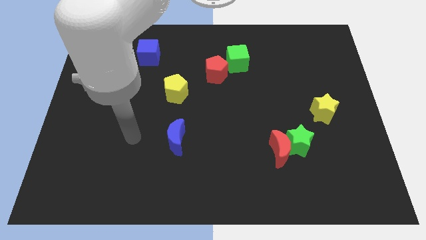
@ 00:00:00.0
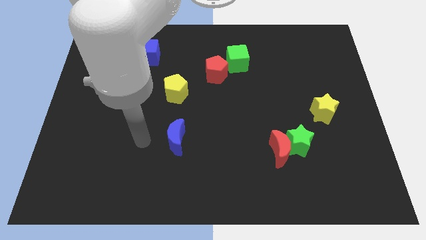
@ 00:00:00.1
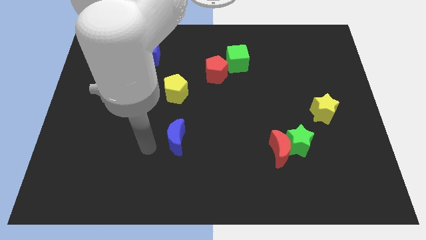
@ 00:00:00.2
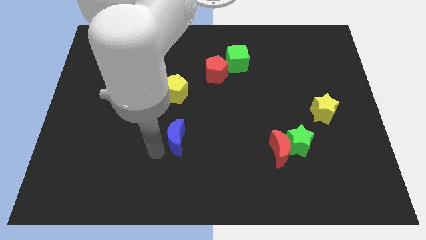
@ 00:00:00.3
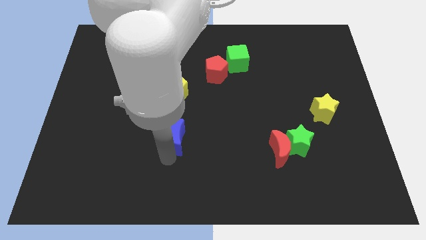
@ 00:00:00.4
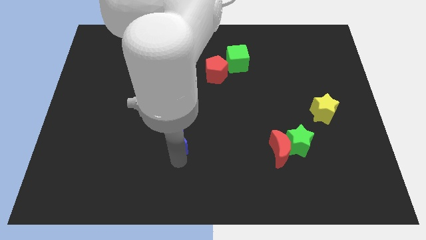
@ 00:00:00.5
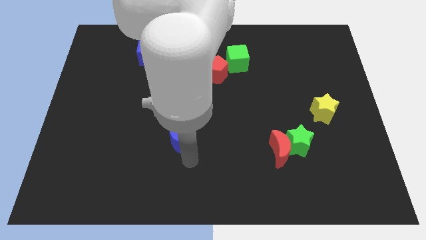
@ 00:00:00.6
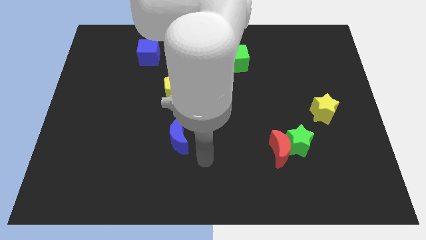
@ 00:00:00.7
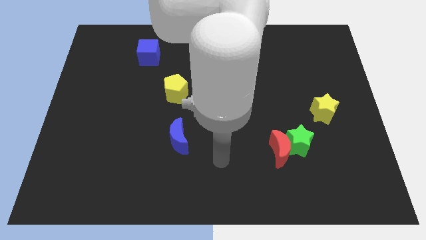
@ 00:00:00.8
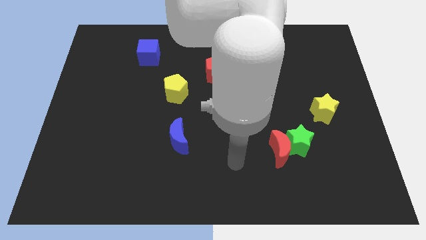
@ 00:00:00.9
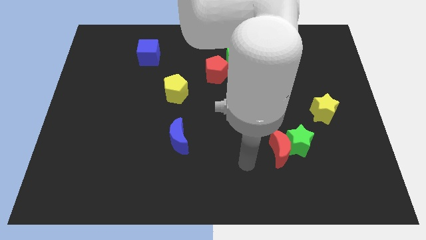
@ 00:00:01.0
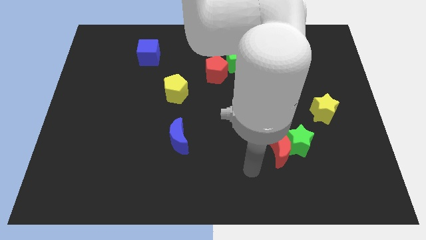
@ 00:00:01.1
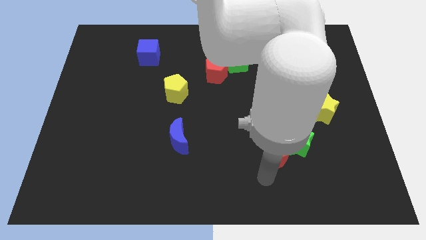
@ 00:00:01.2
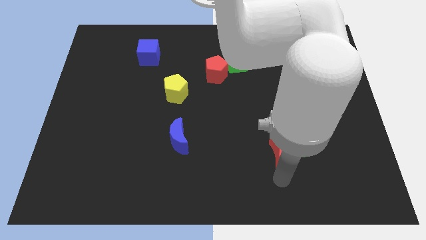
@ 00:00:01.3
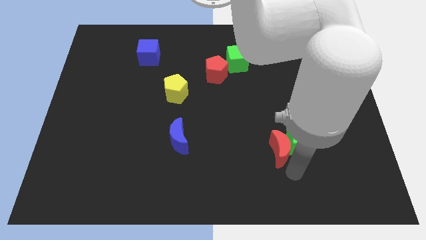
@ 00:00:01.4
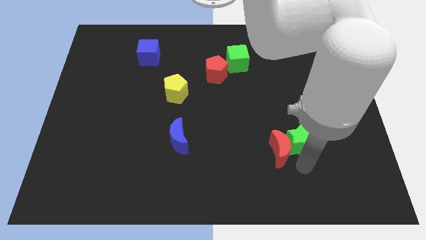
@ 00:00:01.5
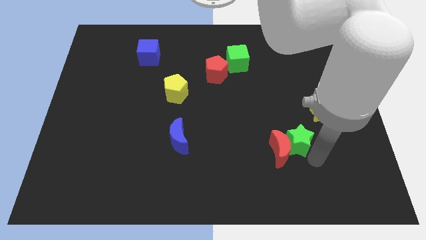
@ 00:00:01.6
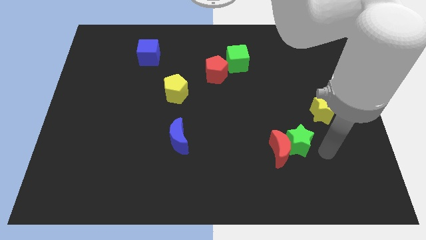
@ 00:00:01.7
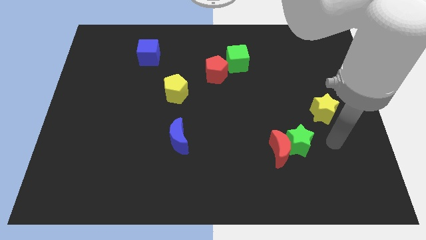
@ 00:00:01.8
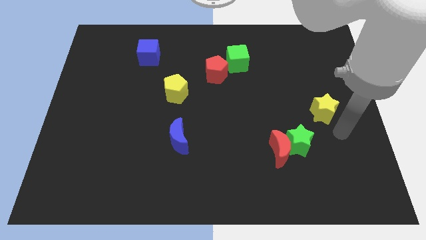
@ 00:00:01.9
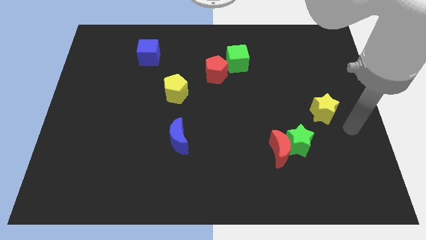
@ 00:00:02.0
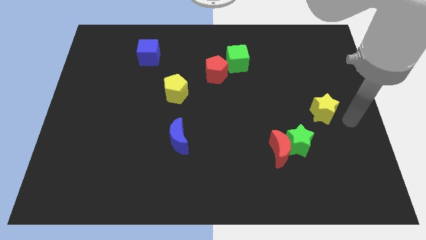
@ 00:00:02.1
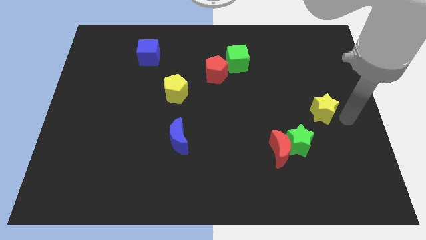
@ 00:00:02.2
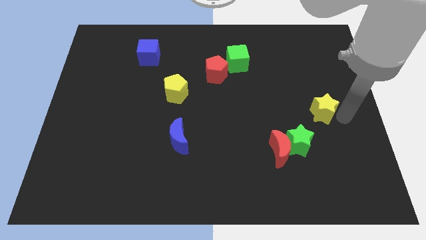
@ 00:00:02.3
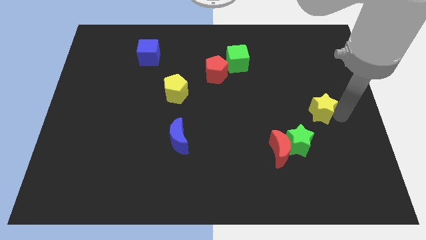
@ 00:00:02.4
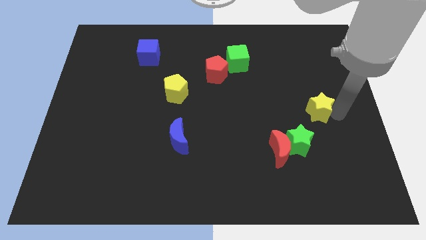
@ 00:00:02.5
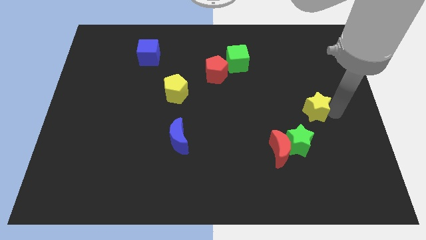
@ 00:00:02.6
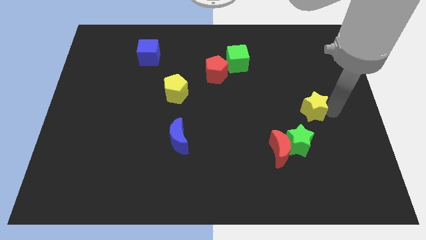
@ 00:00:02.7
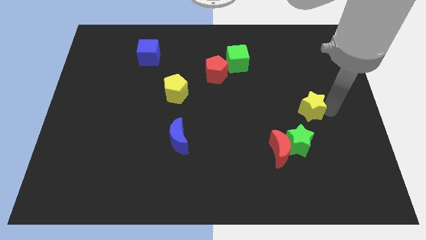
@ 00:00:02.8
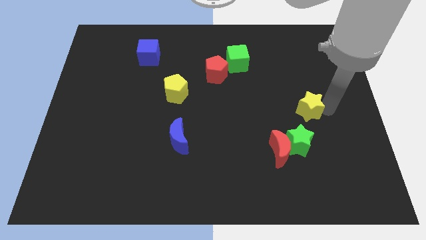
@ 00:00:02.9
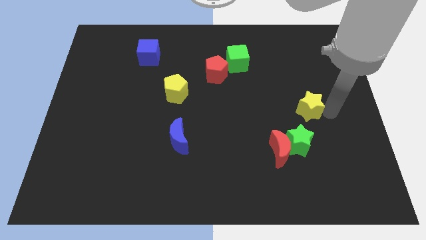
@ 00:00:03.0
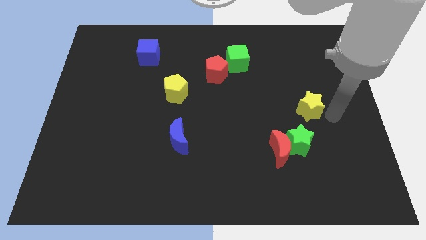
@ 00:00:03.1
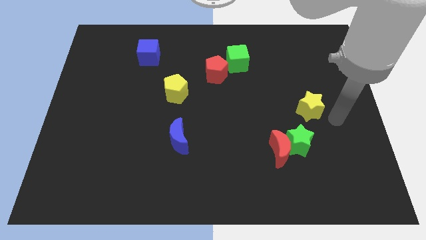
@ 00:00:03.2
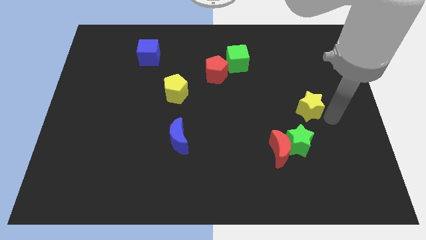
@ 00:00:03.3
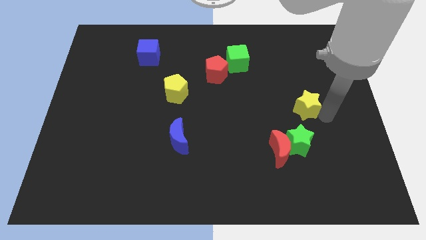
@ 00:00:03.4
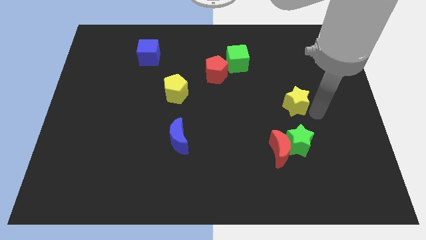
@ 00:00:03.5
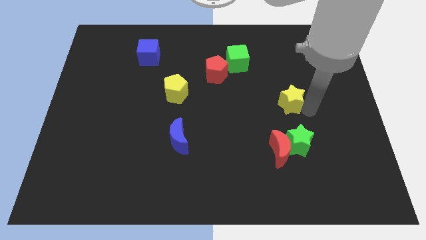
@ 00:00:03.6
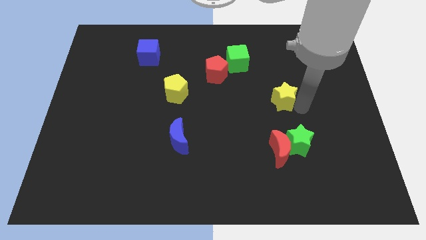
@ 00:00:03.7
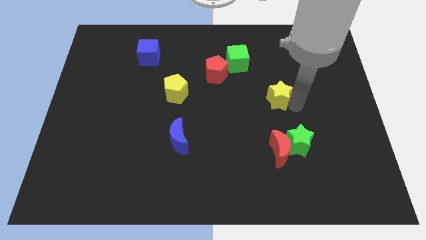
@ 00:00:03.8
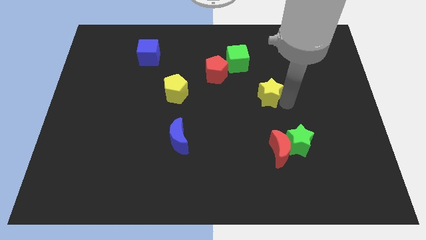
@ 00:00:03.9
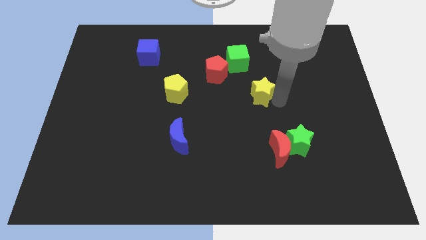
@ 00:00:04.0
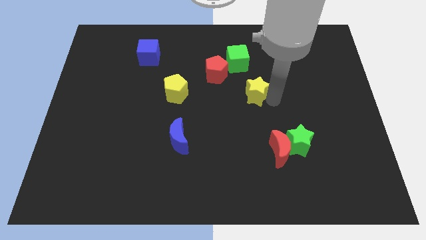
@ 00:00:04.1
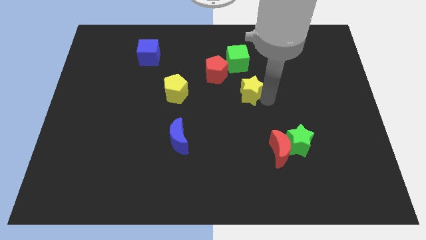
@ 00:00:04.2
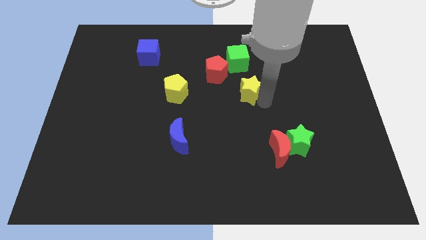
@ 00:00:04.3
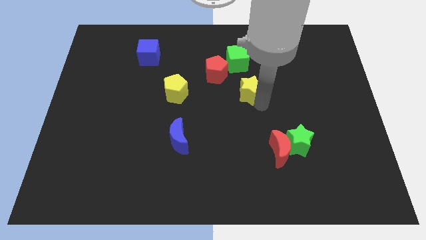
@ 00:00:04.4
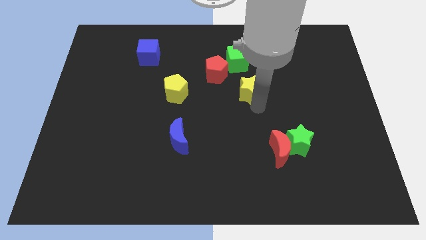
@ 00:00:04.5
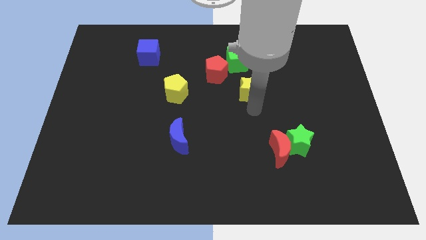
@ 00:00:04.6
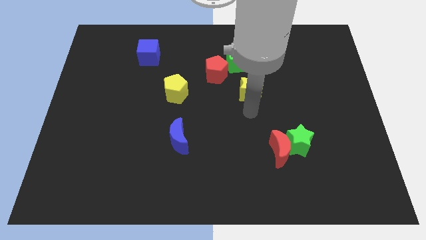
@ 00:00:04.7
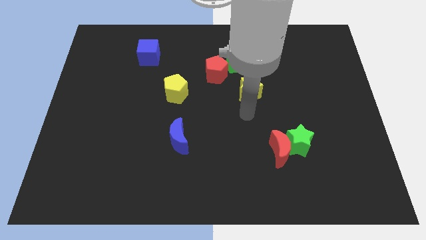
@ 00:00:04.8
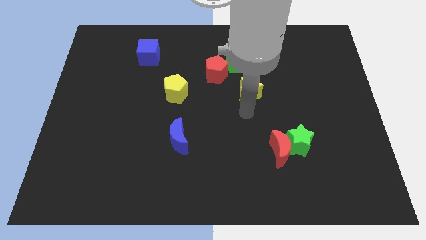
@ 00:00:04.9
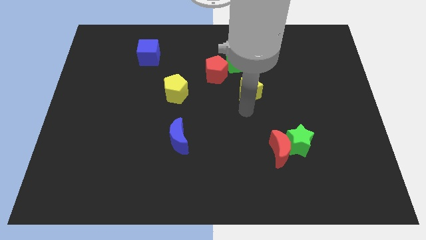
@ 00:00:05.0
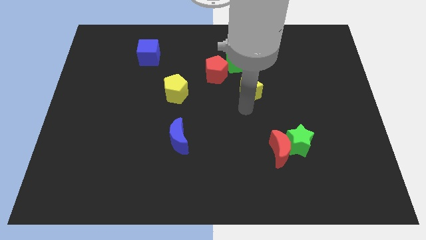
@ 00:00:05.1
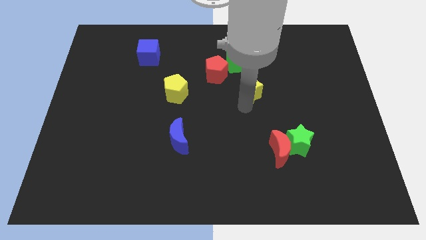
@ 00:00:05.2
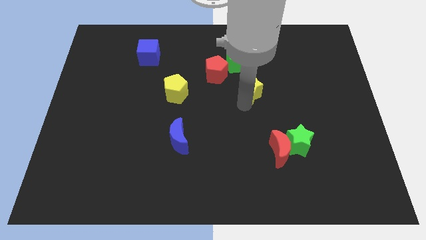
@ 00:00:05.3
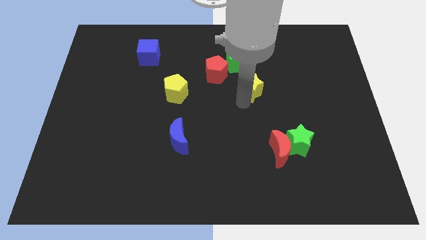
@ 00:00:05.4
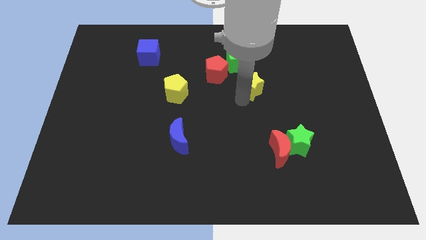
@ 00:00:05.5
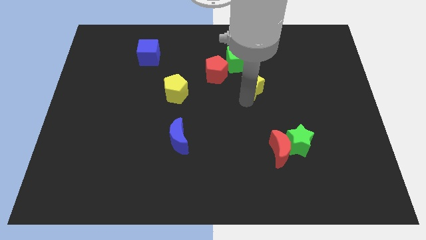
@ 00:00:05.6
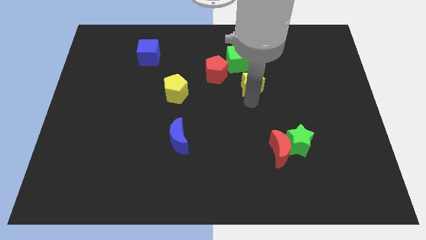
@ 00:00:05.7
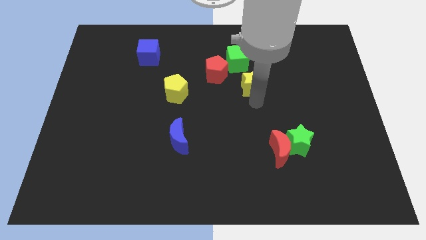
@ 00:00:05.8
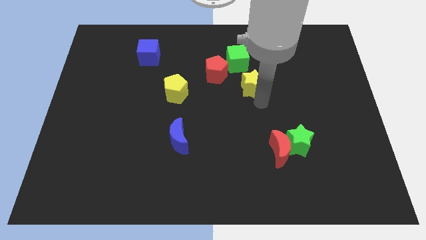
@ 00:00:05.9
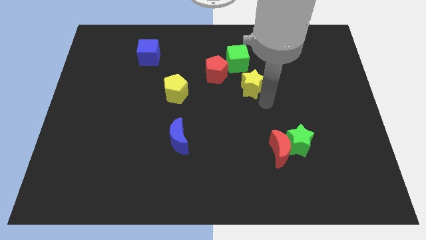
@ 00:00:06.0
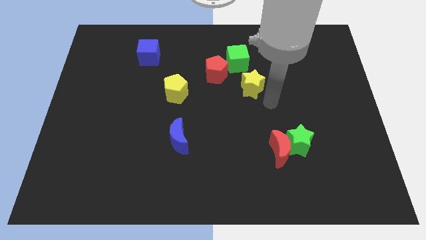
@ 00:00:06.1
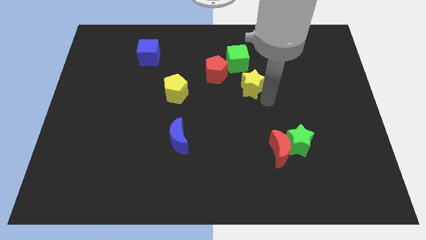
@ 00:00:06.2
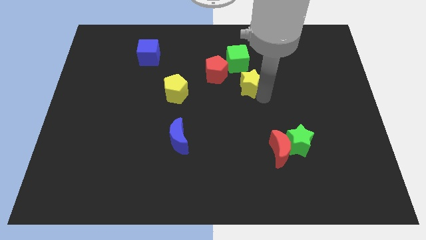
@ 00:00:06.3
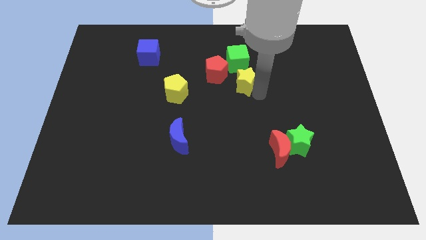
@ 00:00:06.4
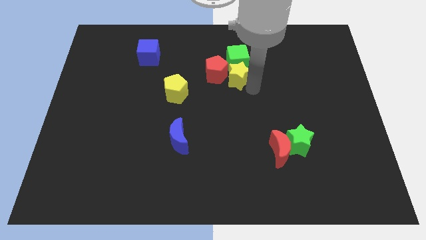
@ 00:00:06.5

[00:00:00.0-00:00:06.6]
push the yellow star to the red pentagon
